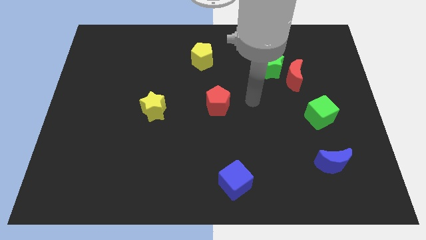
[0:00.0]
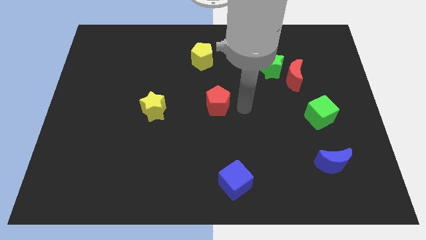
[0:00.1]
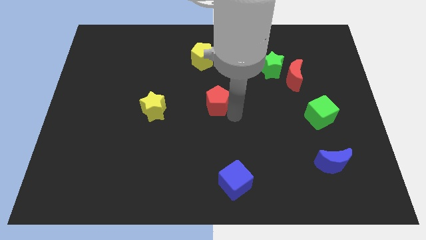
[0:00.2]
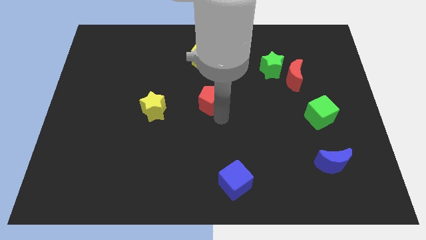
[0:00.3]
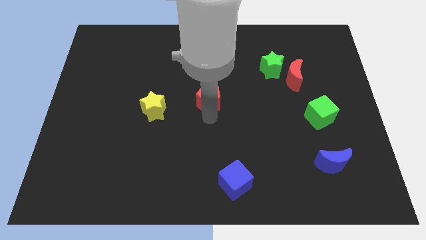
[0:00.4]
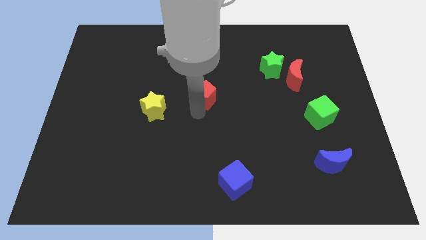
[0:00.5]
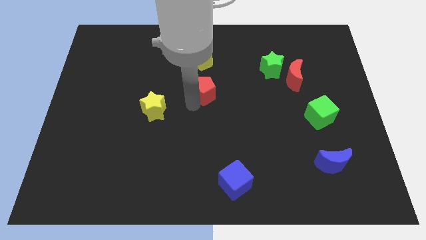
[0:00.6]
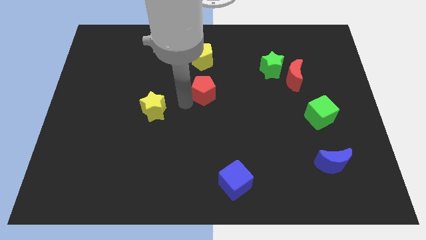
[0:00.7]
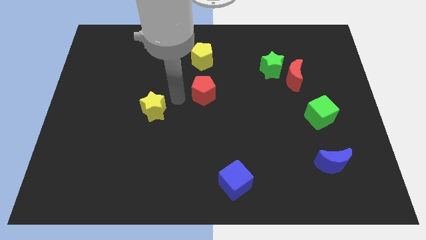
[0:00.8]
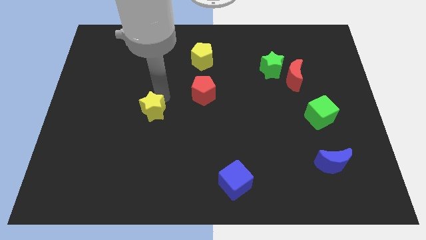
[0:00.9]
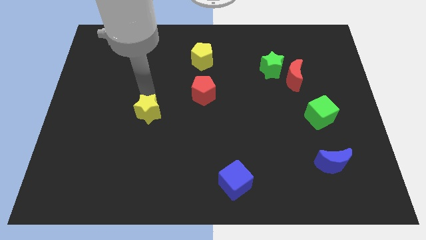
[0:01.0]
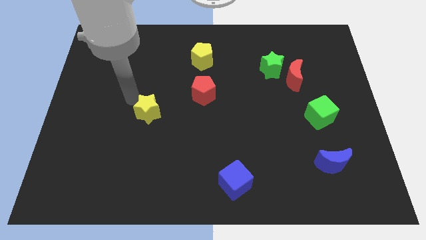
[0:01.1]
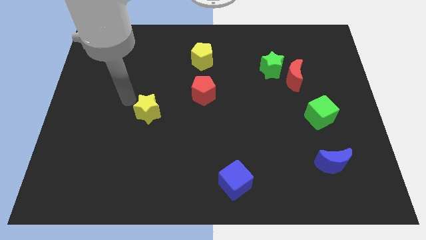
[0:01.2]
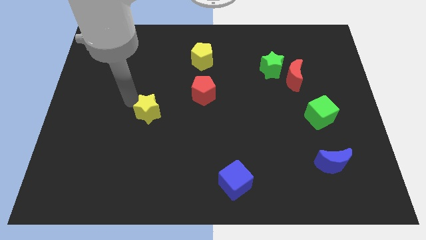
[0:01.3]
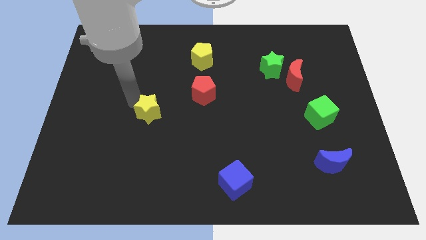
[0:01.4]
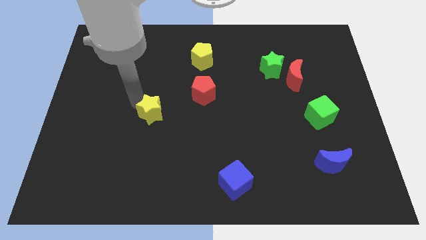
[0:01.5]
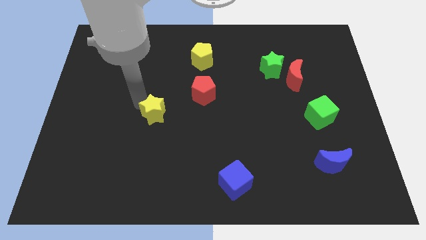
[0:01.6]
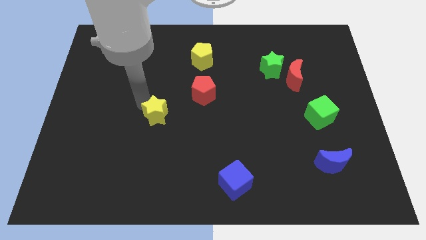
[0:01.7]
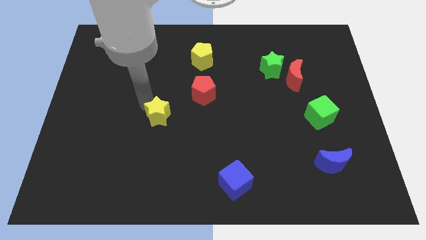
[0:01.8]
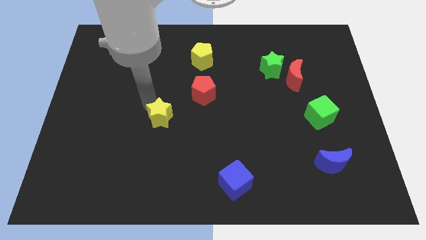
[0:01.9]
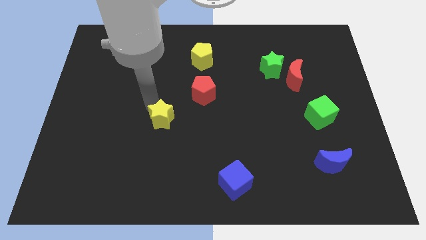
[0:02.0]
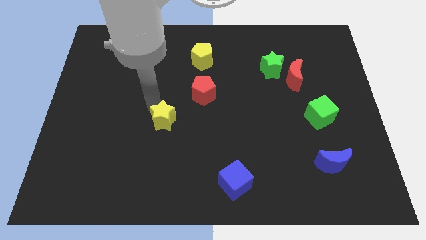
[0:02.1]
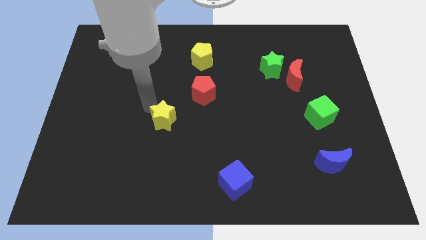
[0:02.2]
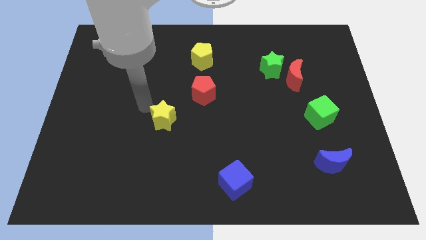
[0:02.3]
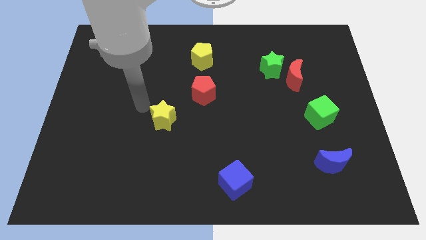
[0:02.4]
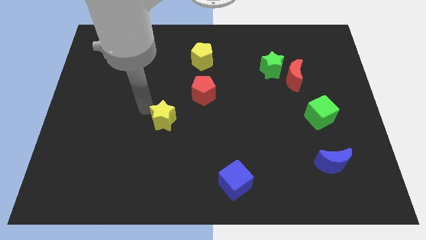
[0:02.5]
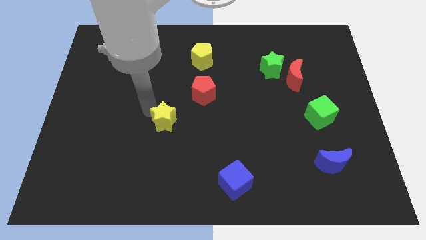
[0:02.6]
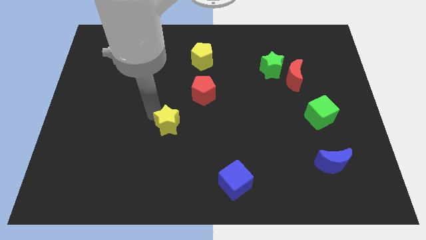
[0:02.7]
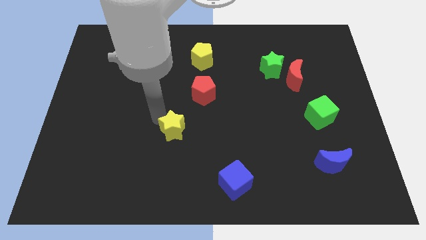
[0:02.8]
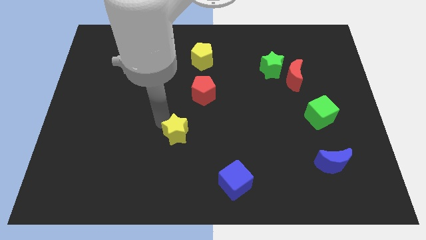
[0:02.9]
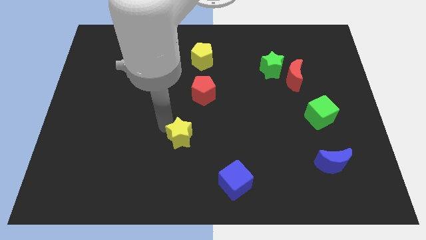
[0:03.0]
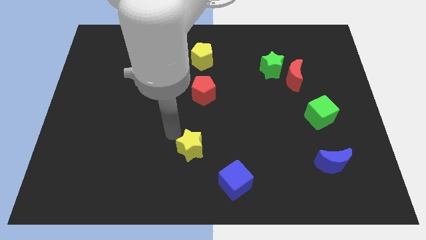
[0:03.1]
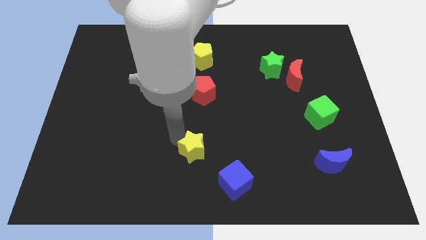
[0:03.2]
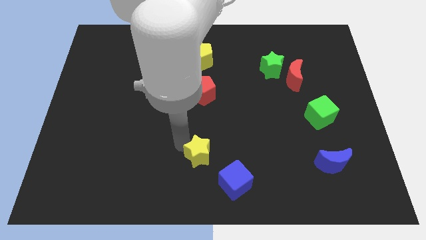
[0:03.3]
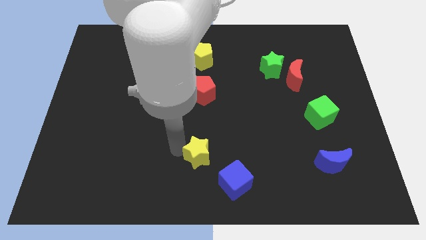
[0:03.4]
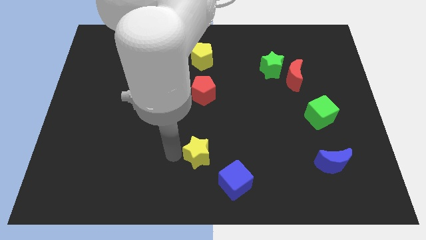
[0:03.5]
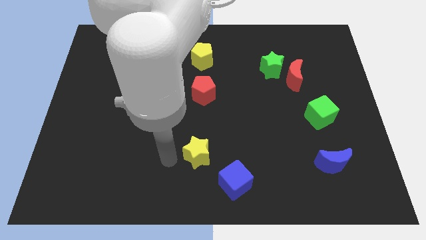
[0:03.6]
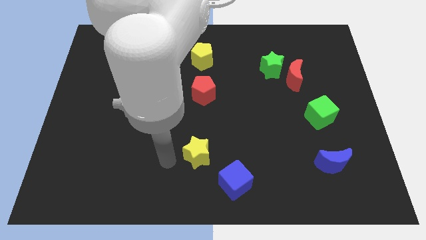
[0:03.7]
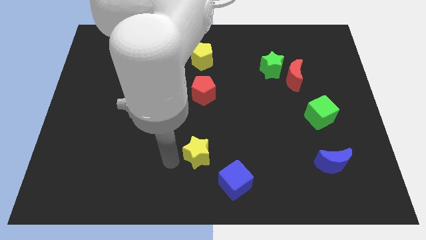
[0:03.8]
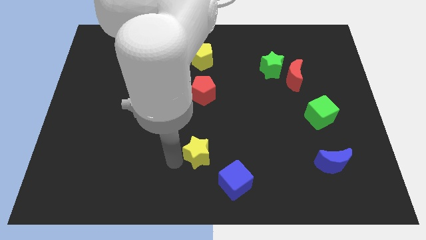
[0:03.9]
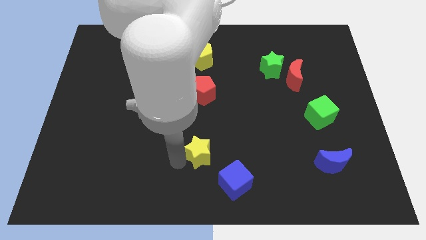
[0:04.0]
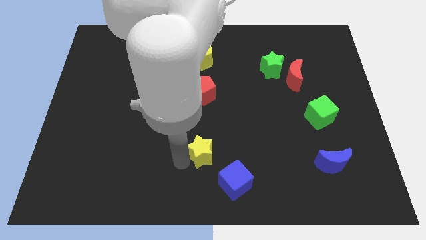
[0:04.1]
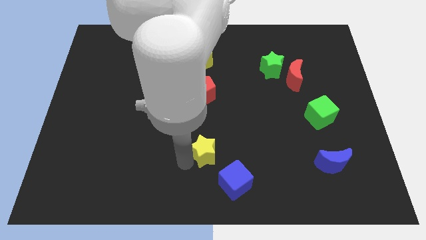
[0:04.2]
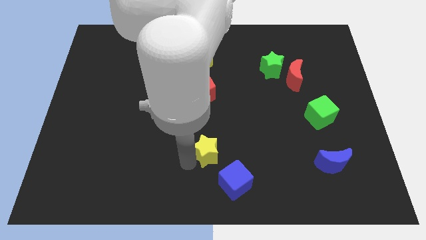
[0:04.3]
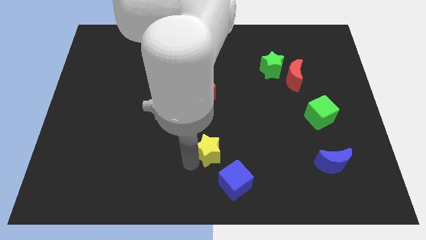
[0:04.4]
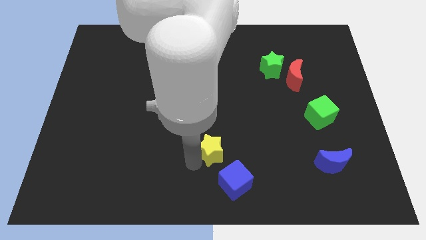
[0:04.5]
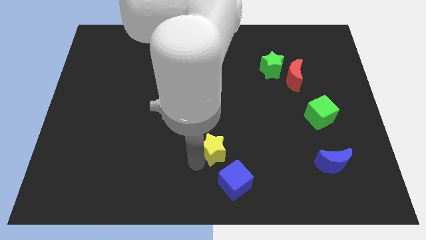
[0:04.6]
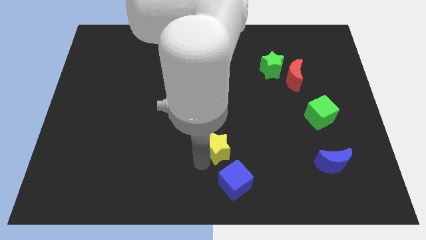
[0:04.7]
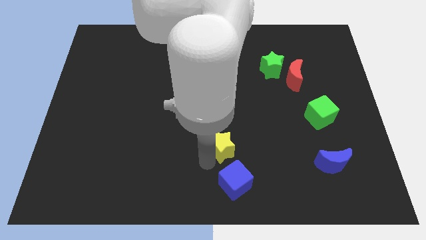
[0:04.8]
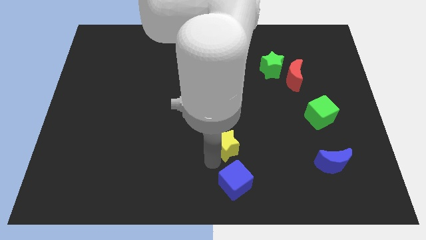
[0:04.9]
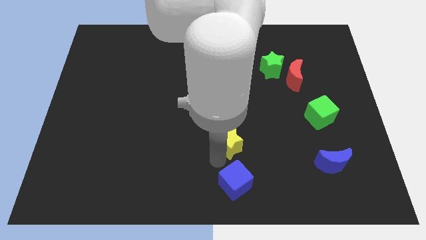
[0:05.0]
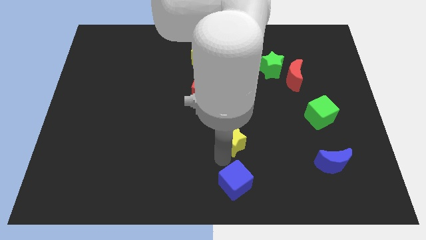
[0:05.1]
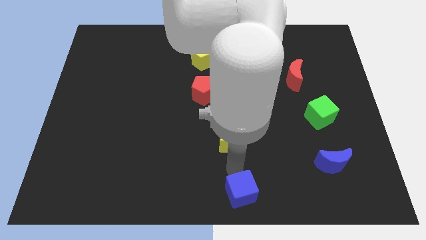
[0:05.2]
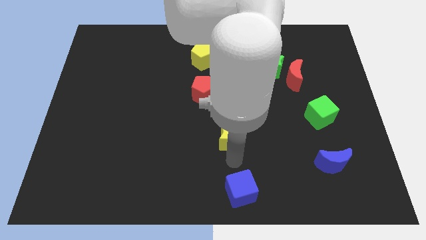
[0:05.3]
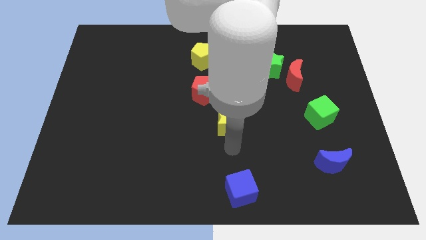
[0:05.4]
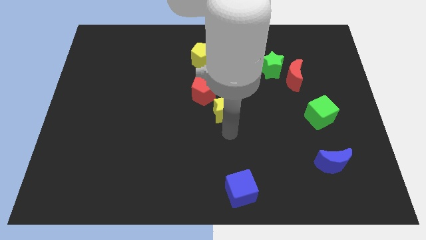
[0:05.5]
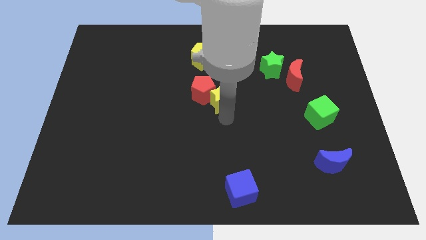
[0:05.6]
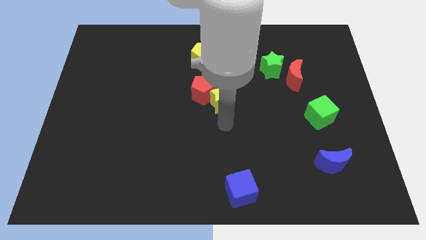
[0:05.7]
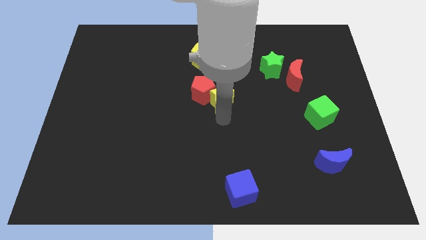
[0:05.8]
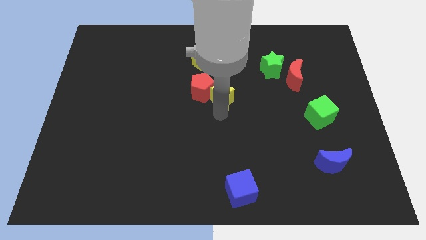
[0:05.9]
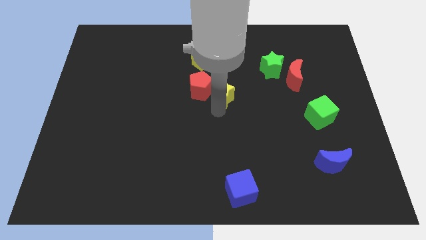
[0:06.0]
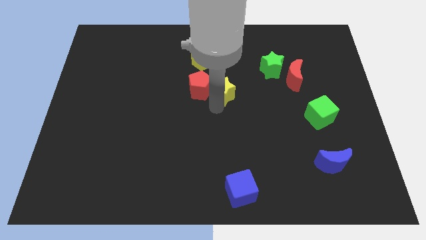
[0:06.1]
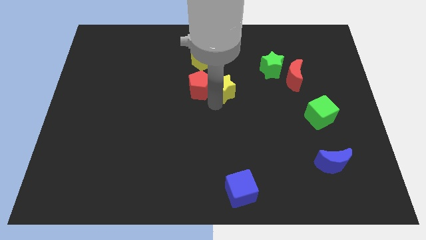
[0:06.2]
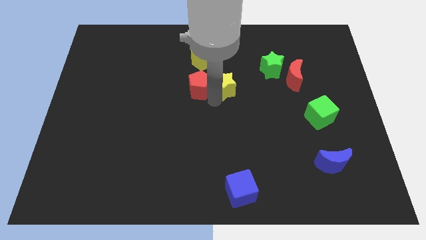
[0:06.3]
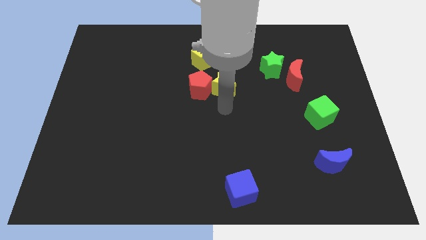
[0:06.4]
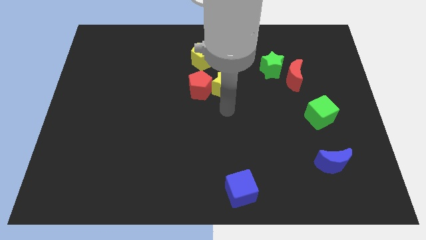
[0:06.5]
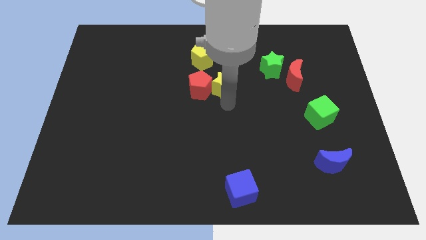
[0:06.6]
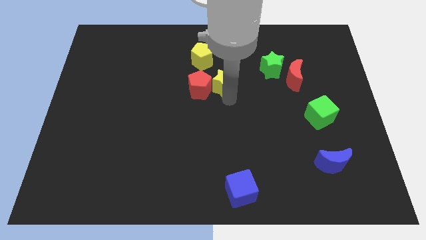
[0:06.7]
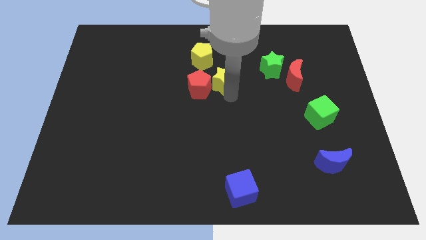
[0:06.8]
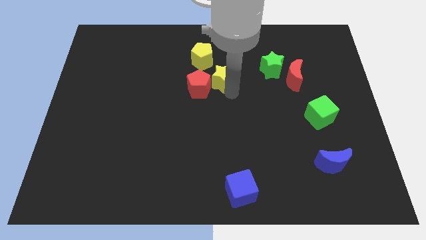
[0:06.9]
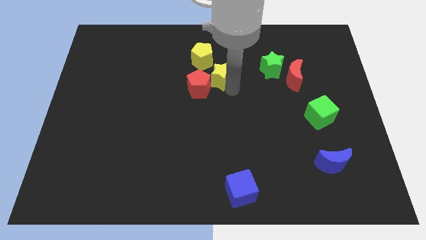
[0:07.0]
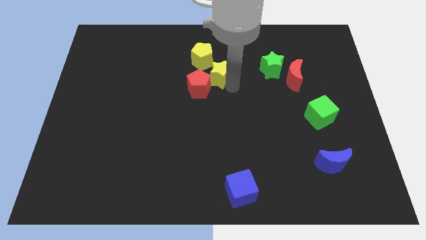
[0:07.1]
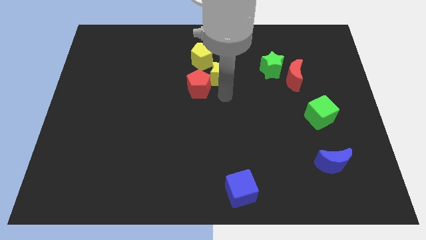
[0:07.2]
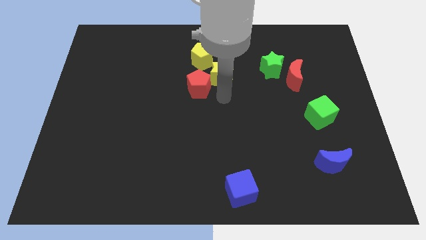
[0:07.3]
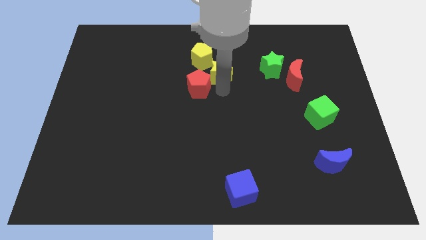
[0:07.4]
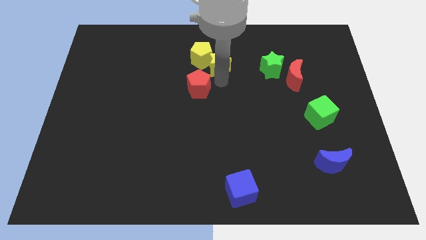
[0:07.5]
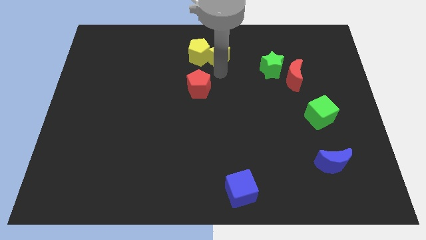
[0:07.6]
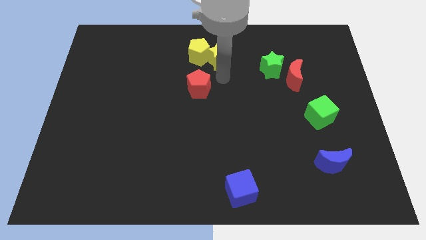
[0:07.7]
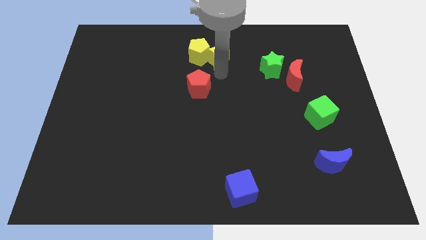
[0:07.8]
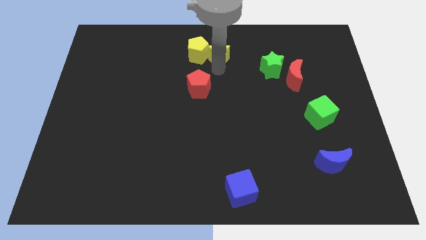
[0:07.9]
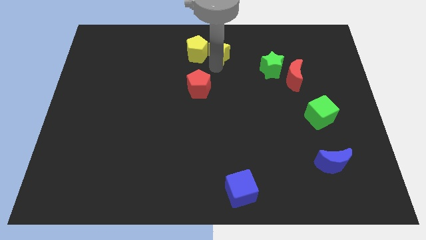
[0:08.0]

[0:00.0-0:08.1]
slide the yellow star to the top
